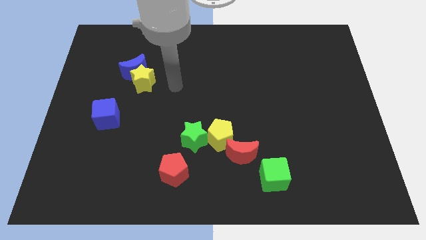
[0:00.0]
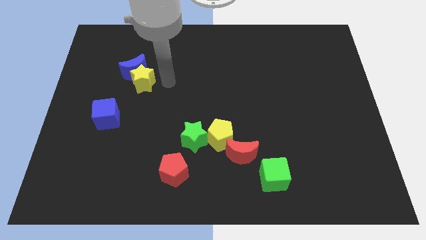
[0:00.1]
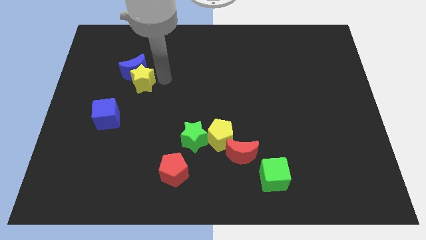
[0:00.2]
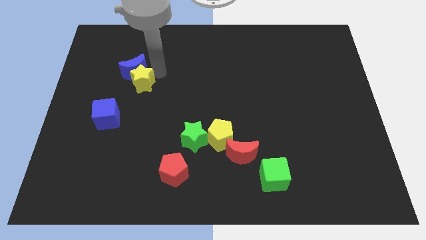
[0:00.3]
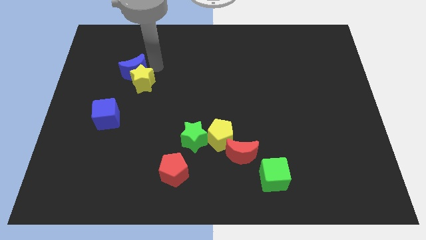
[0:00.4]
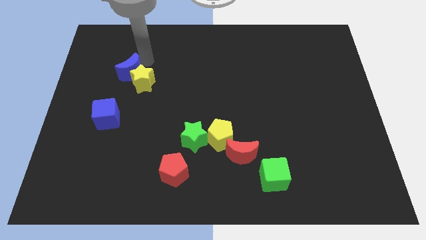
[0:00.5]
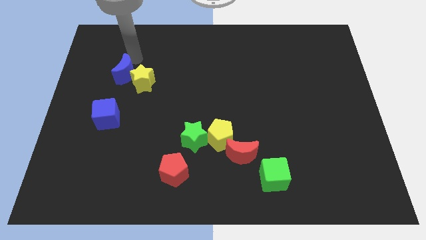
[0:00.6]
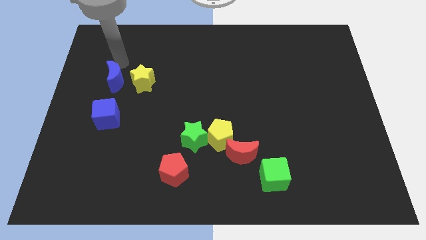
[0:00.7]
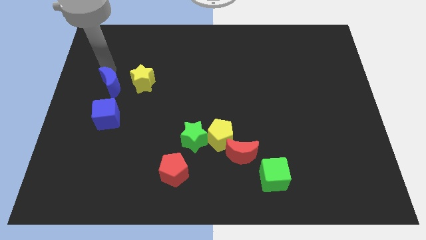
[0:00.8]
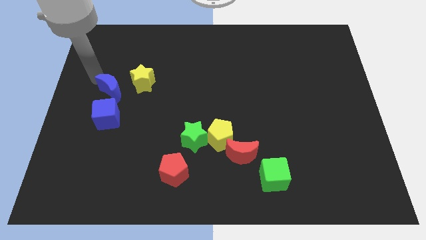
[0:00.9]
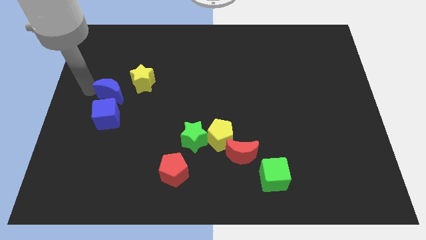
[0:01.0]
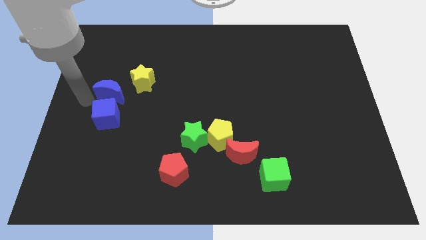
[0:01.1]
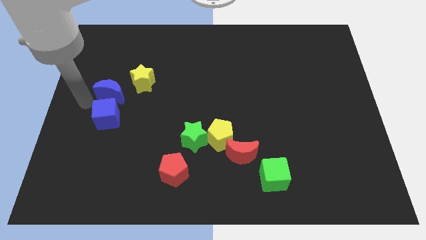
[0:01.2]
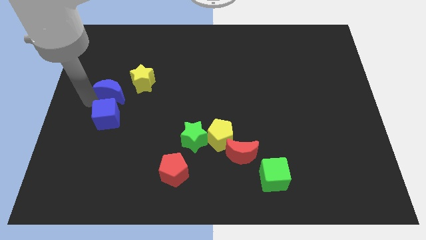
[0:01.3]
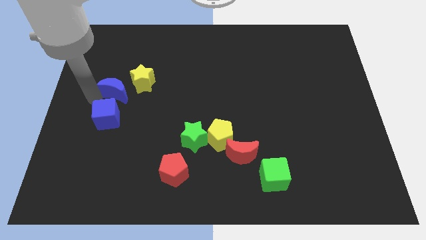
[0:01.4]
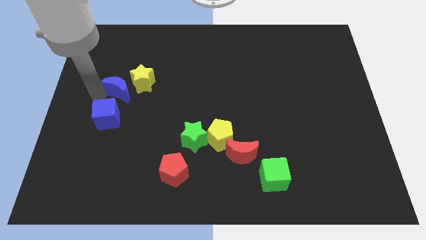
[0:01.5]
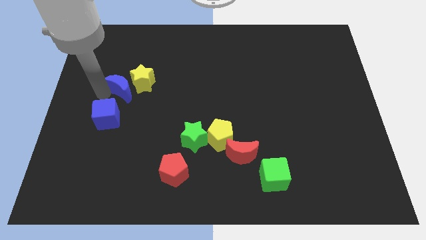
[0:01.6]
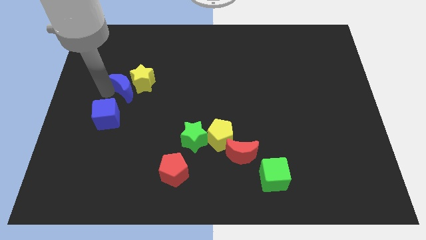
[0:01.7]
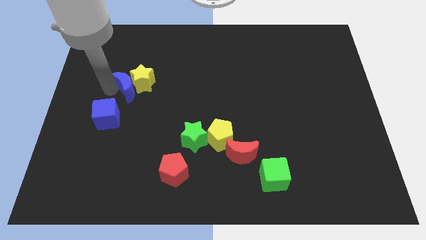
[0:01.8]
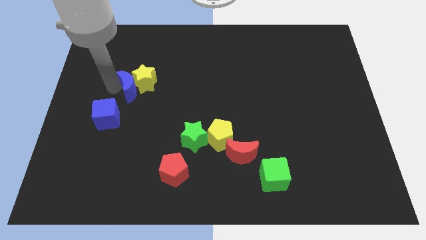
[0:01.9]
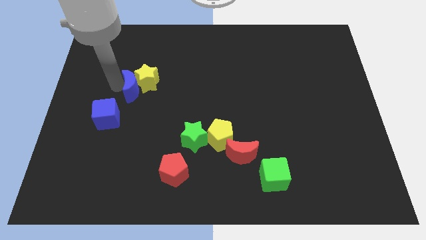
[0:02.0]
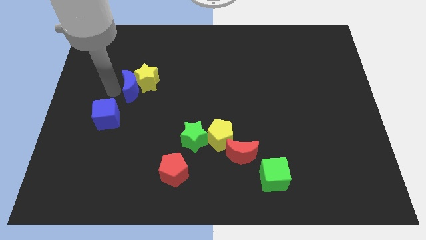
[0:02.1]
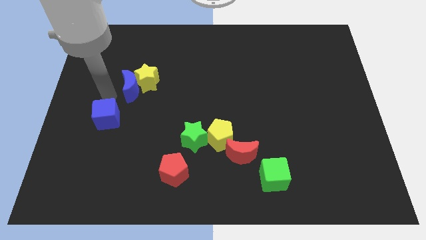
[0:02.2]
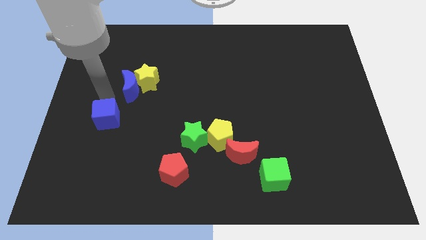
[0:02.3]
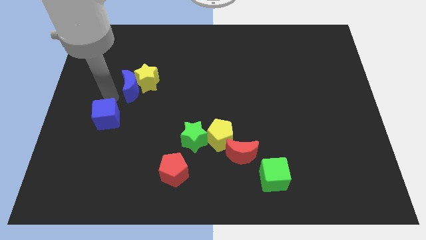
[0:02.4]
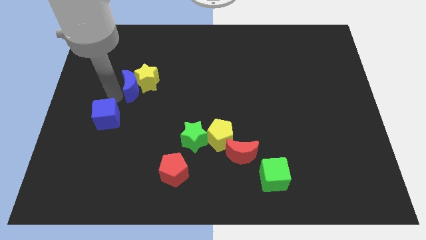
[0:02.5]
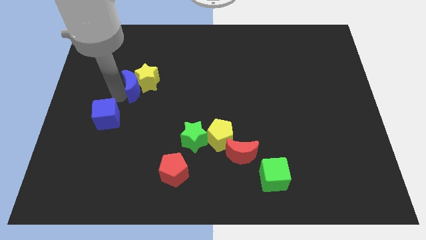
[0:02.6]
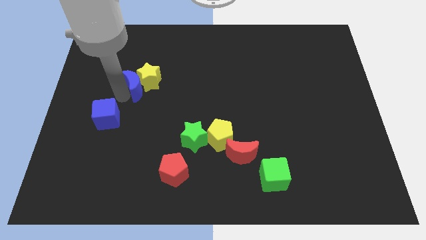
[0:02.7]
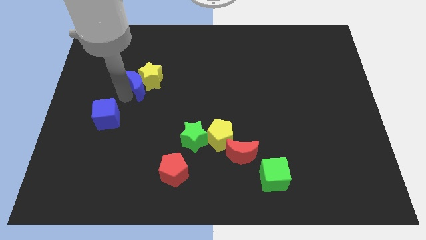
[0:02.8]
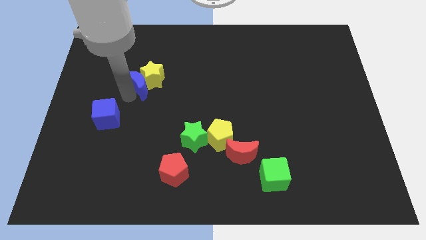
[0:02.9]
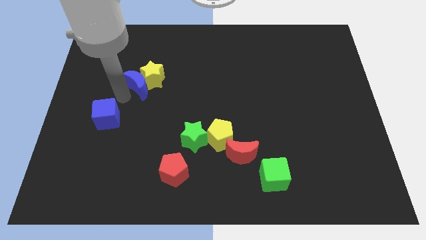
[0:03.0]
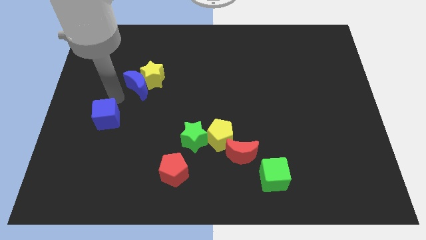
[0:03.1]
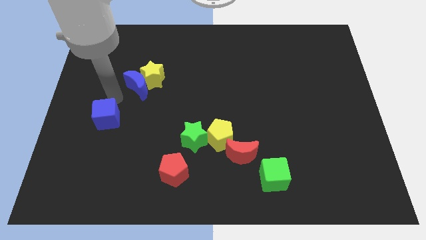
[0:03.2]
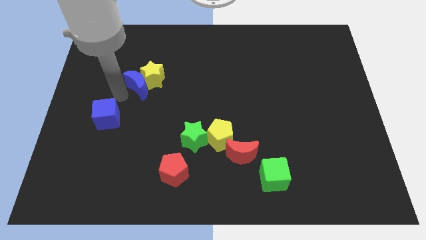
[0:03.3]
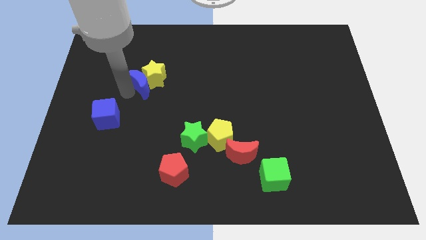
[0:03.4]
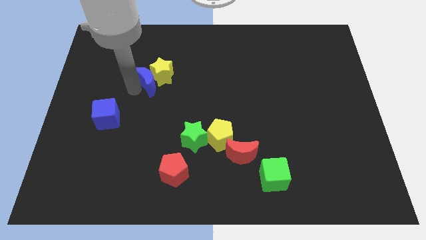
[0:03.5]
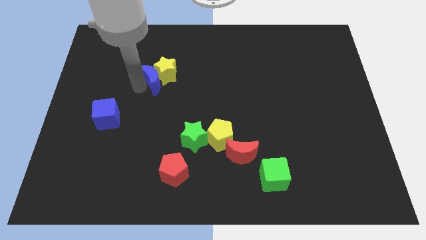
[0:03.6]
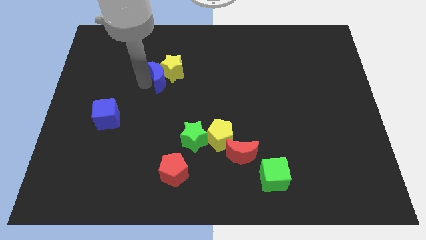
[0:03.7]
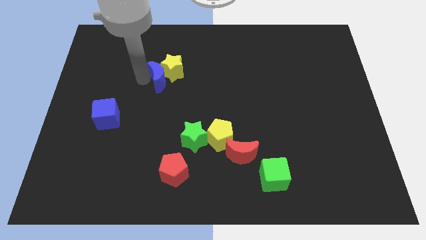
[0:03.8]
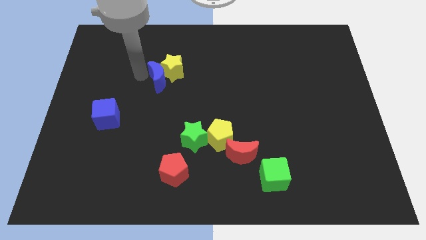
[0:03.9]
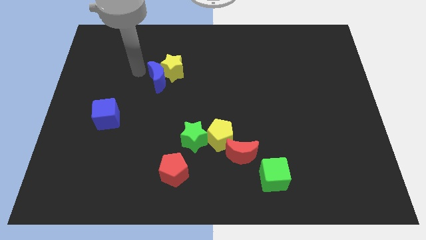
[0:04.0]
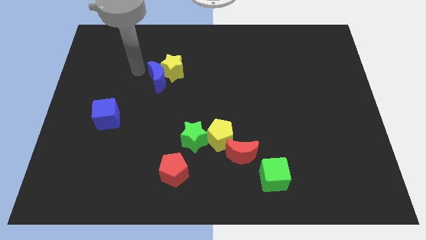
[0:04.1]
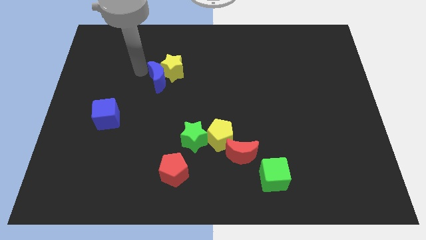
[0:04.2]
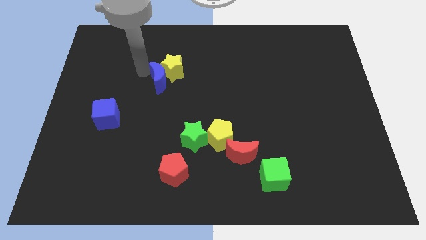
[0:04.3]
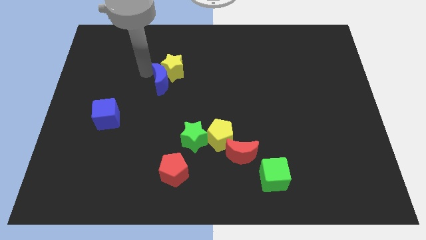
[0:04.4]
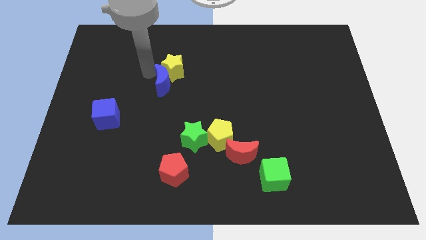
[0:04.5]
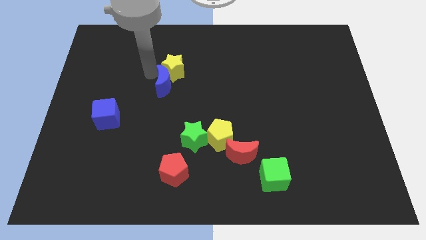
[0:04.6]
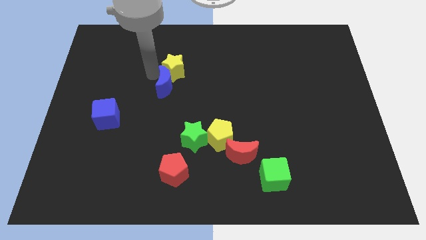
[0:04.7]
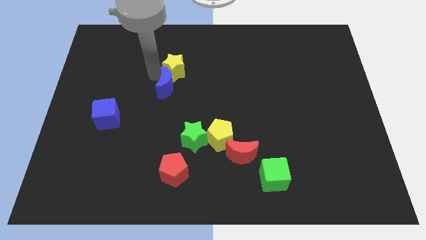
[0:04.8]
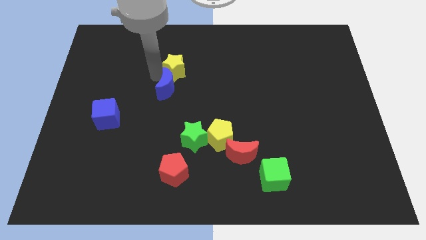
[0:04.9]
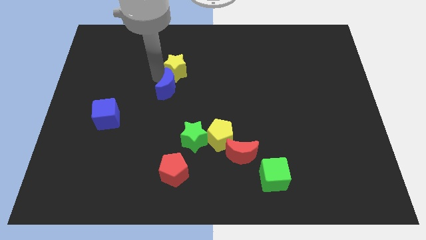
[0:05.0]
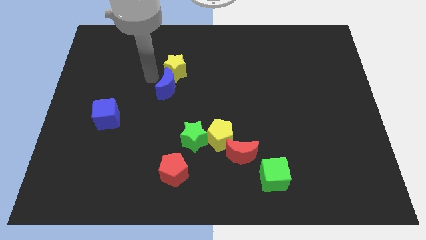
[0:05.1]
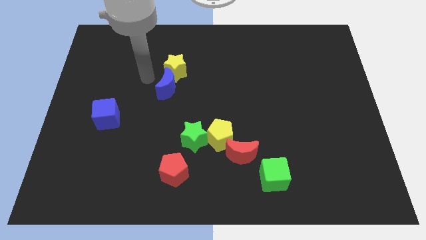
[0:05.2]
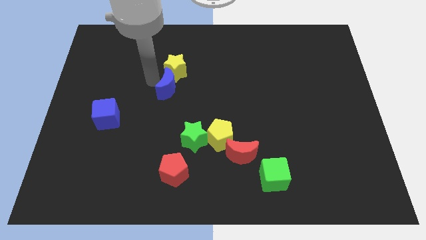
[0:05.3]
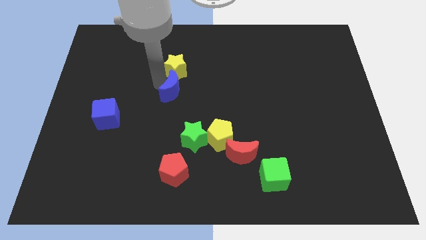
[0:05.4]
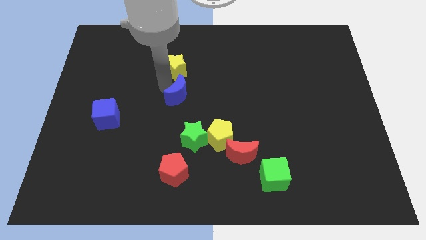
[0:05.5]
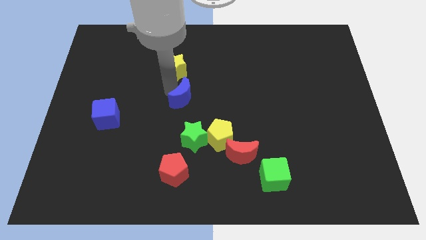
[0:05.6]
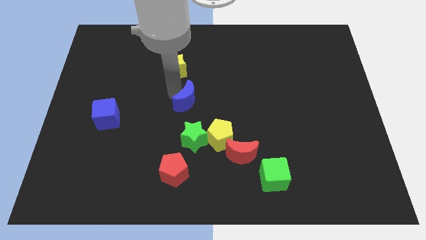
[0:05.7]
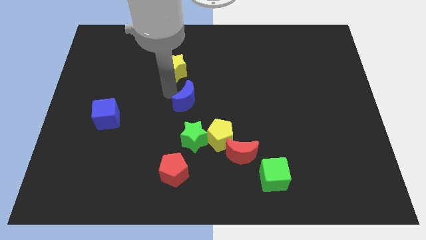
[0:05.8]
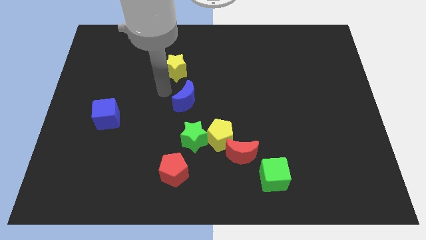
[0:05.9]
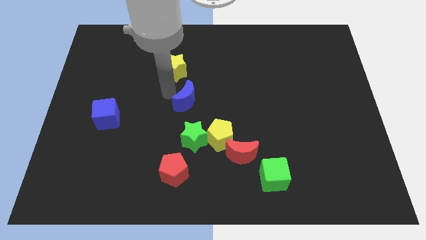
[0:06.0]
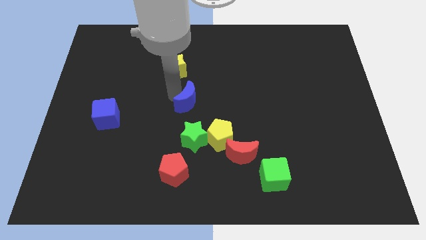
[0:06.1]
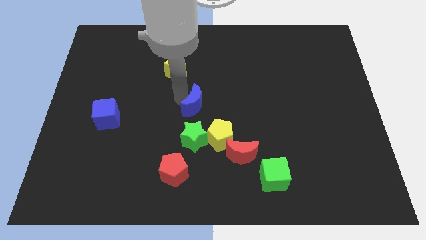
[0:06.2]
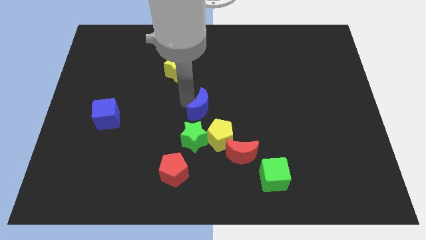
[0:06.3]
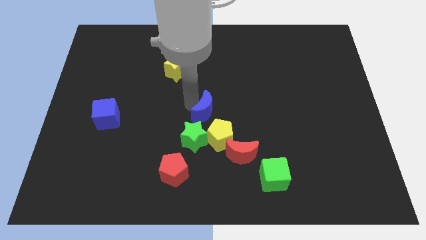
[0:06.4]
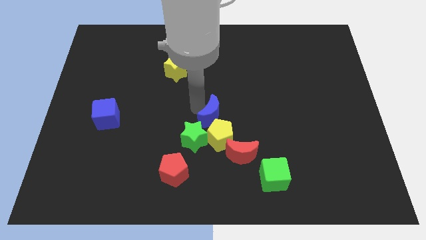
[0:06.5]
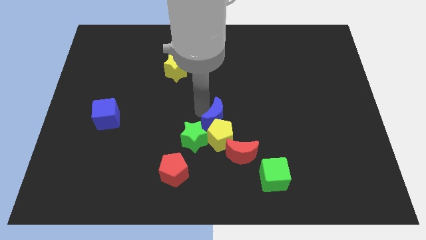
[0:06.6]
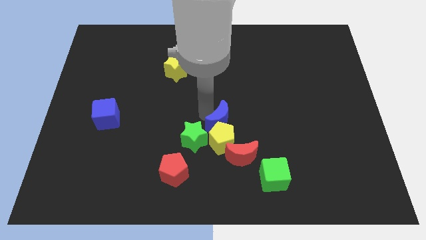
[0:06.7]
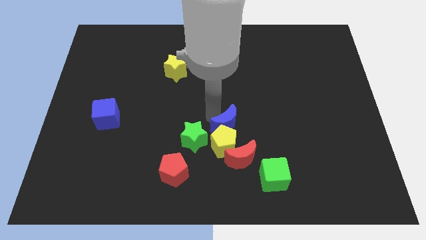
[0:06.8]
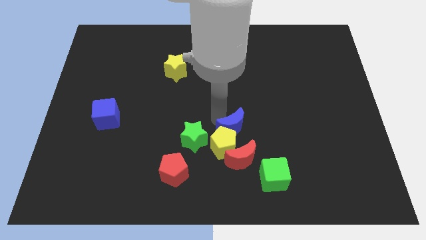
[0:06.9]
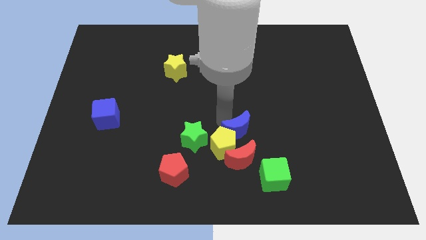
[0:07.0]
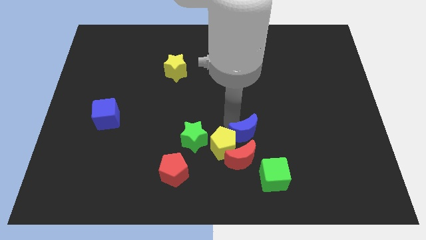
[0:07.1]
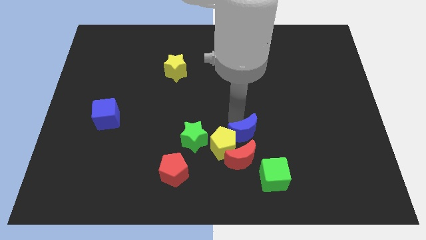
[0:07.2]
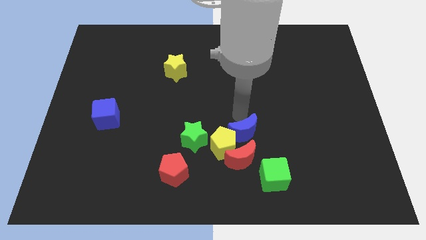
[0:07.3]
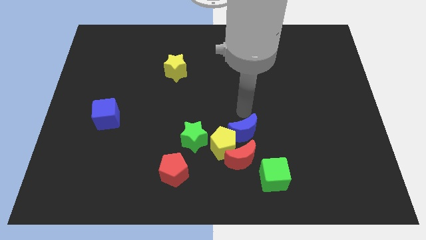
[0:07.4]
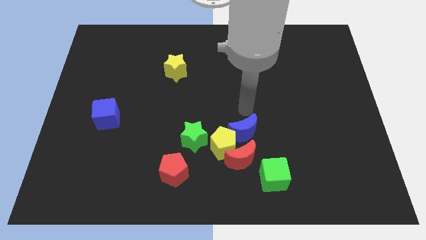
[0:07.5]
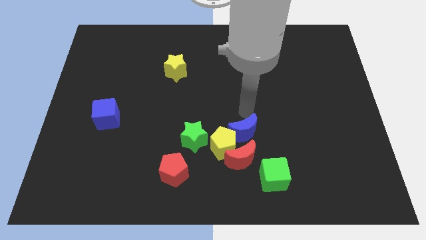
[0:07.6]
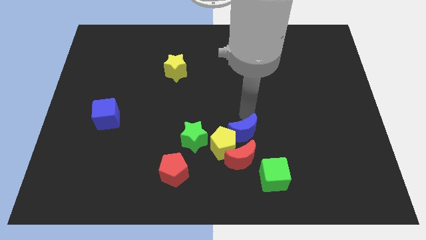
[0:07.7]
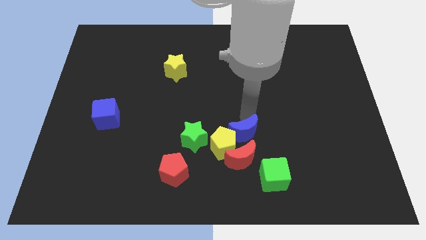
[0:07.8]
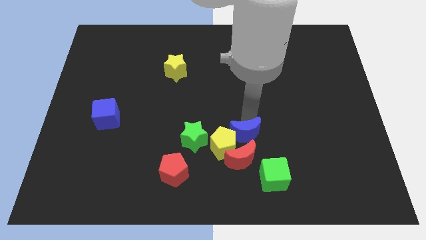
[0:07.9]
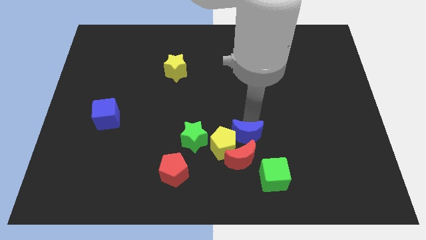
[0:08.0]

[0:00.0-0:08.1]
slide the blue moon to the red moon
